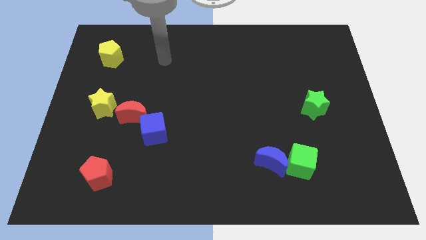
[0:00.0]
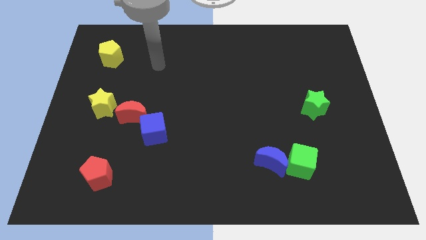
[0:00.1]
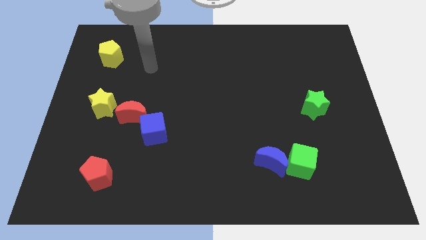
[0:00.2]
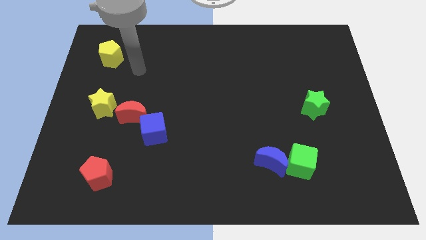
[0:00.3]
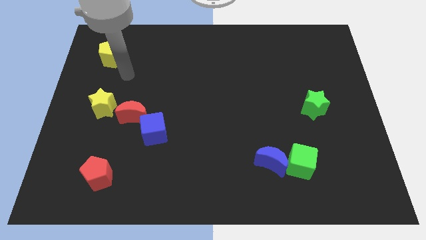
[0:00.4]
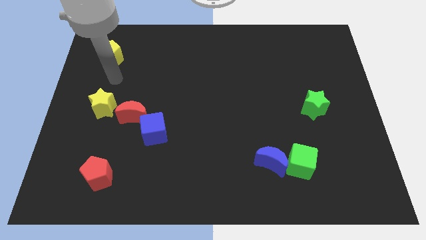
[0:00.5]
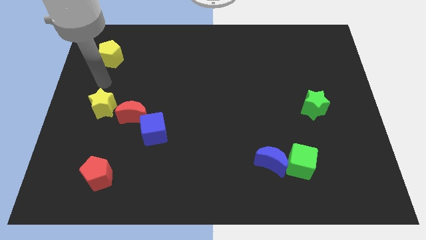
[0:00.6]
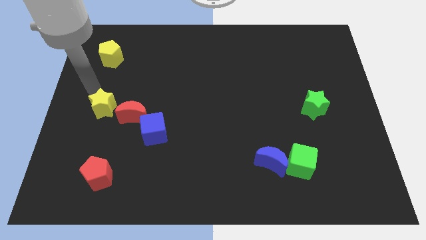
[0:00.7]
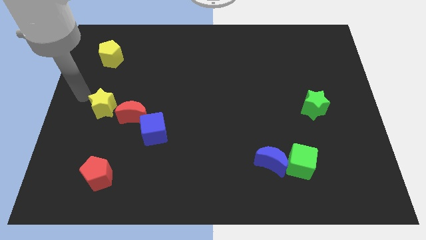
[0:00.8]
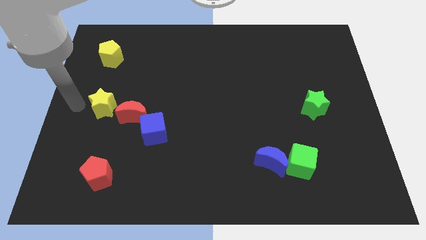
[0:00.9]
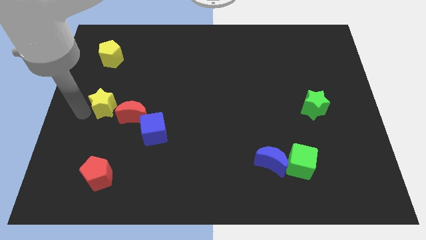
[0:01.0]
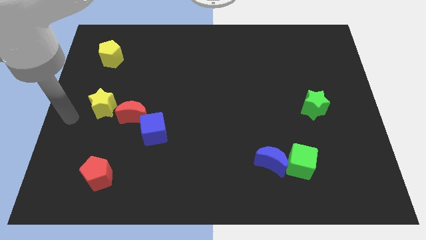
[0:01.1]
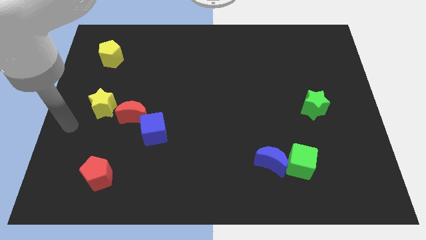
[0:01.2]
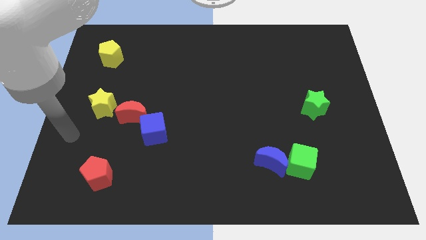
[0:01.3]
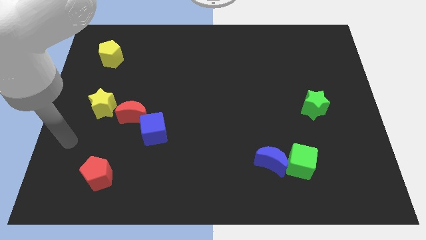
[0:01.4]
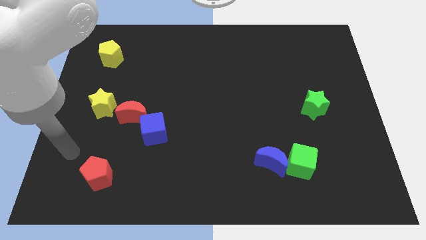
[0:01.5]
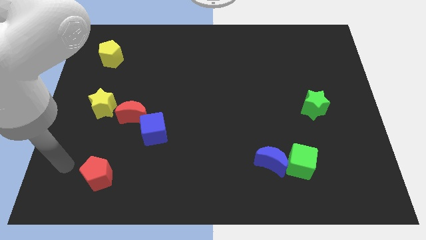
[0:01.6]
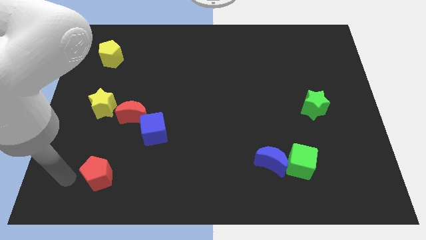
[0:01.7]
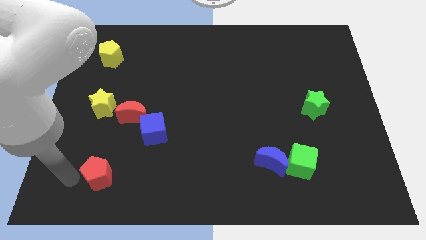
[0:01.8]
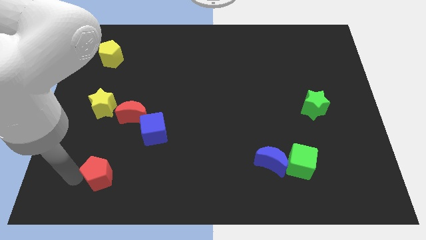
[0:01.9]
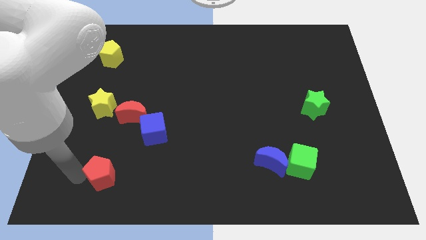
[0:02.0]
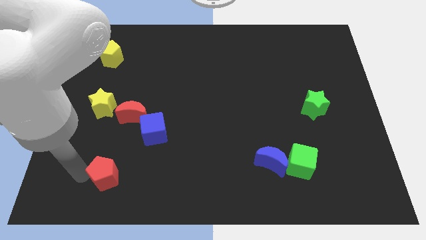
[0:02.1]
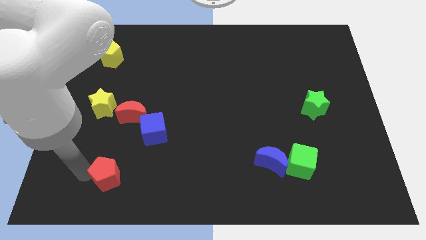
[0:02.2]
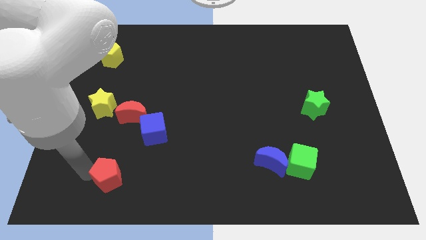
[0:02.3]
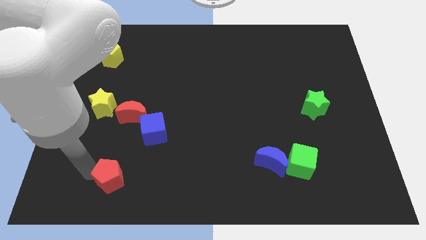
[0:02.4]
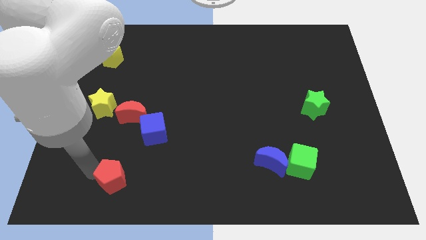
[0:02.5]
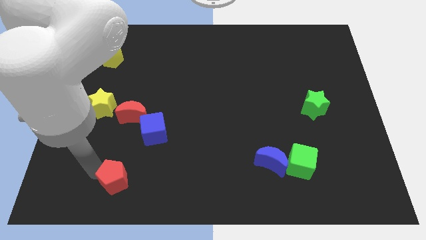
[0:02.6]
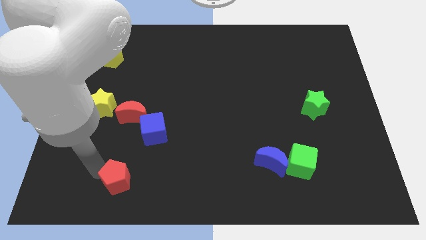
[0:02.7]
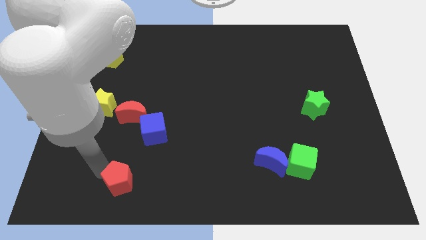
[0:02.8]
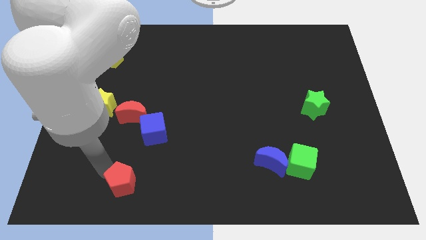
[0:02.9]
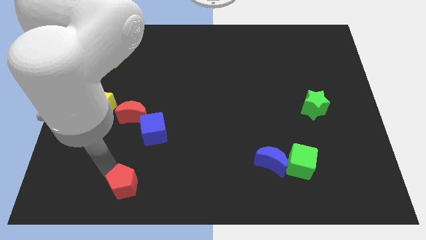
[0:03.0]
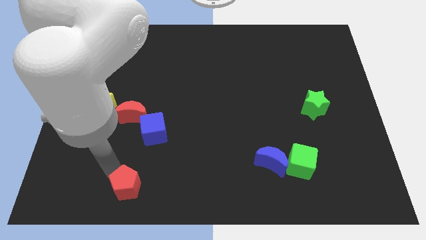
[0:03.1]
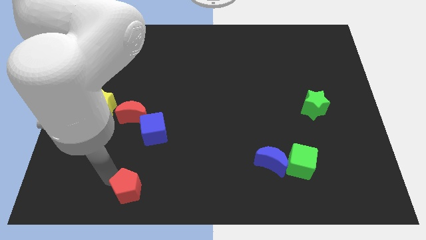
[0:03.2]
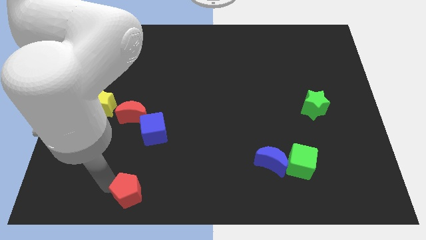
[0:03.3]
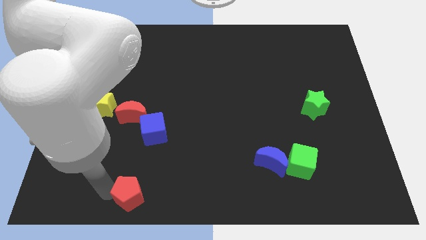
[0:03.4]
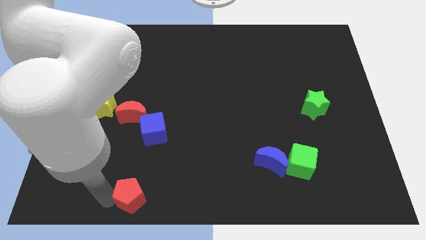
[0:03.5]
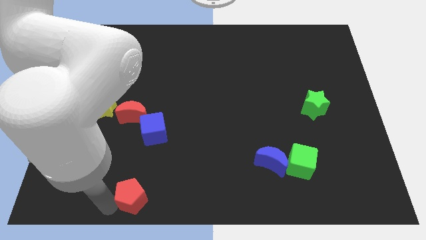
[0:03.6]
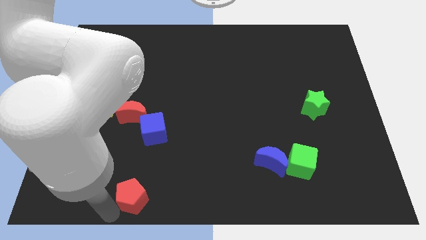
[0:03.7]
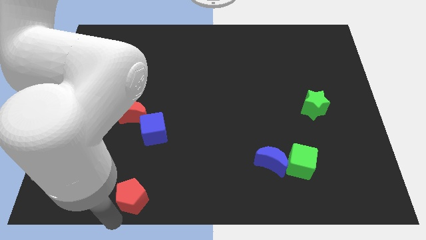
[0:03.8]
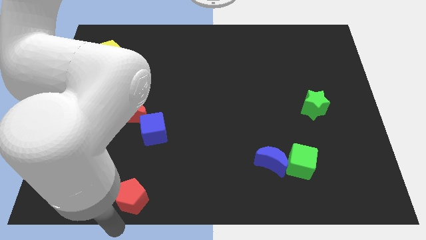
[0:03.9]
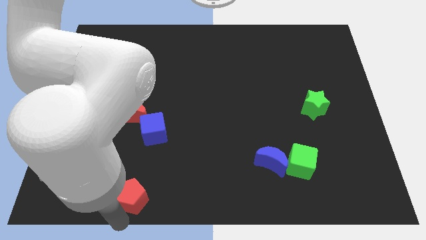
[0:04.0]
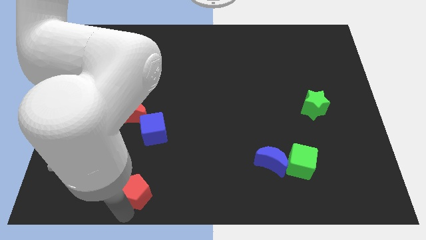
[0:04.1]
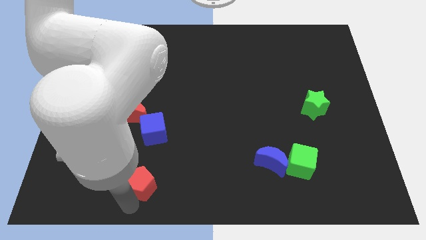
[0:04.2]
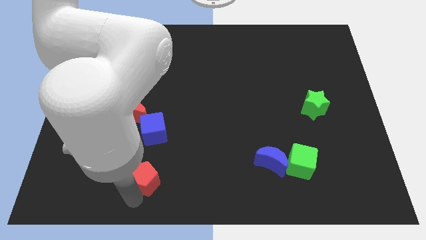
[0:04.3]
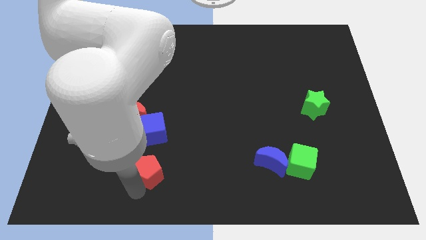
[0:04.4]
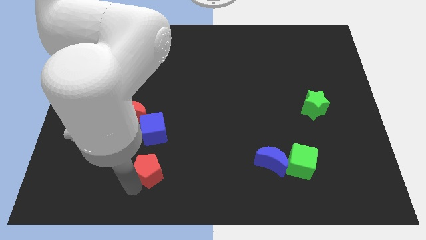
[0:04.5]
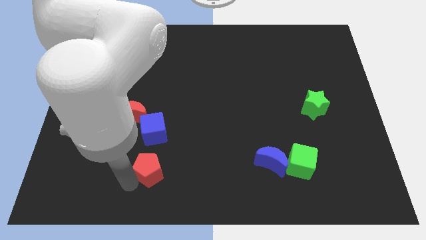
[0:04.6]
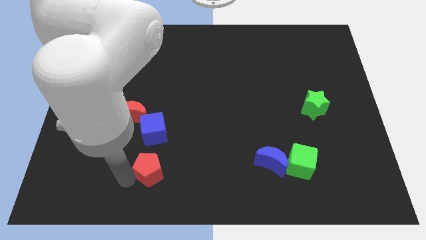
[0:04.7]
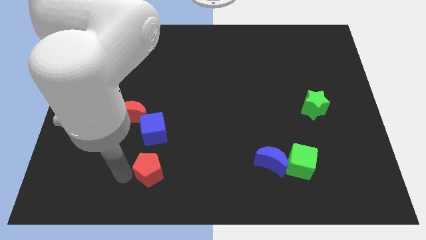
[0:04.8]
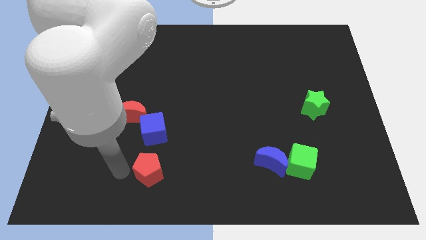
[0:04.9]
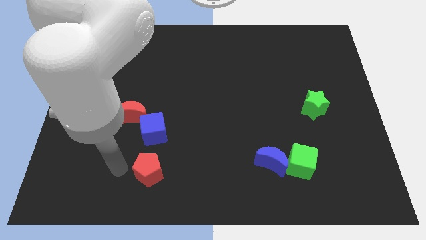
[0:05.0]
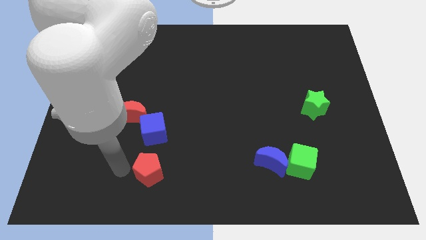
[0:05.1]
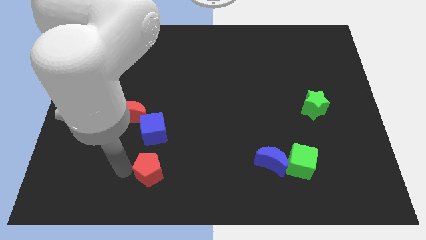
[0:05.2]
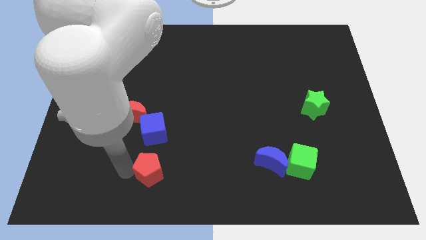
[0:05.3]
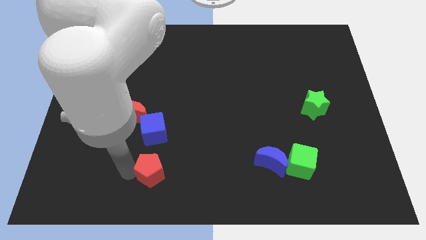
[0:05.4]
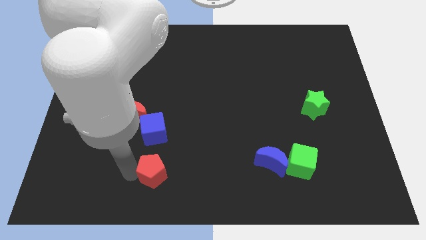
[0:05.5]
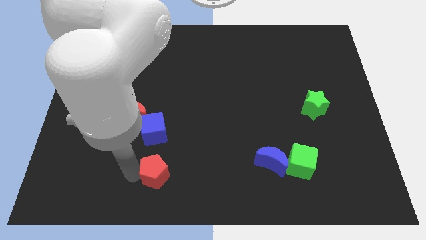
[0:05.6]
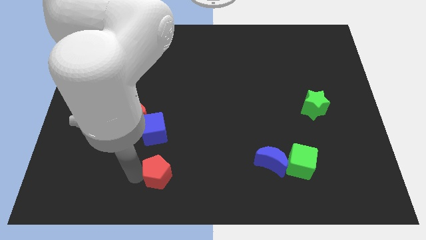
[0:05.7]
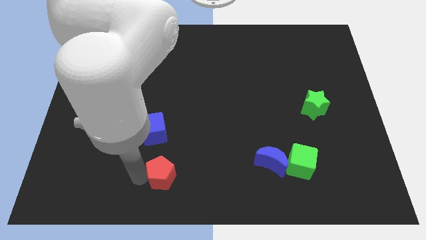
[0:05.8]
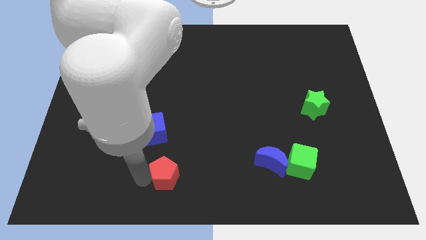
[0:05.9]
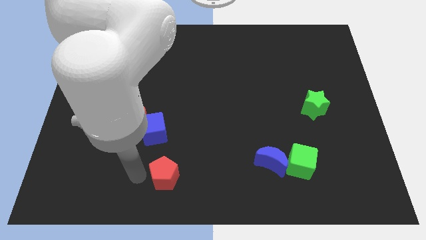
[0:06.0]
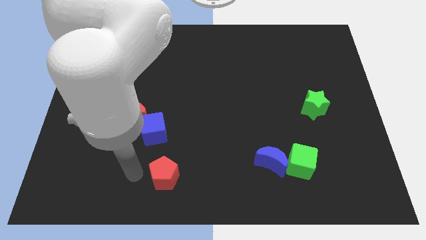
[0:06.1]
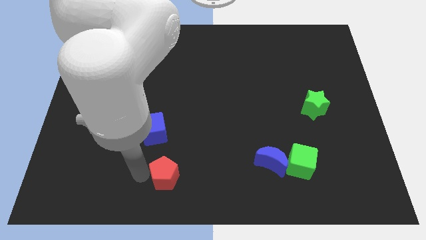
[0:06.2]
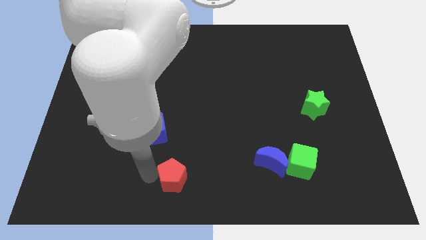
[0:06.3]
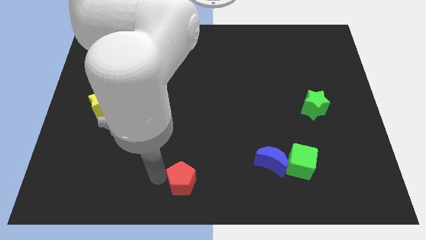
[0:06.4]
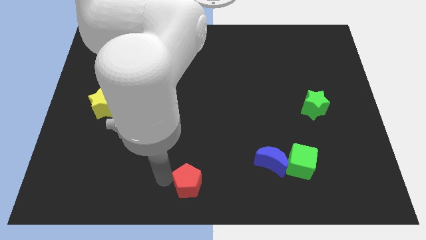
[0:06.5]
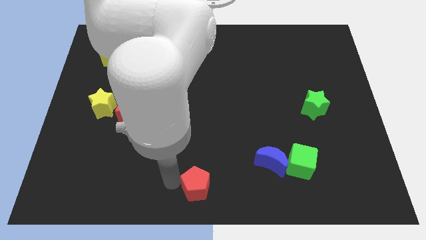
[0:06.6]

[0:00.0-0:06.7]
push the red pentagon right

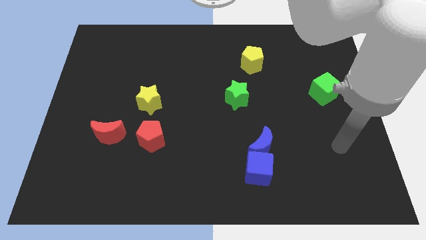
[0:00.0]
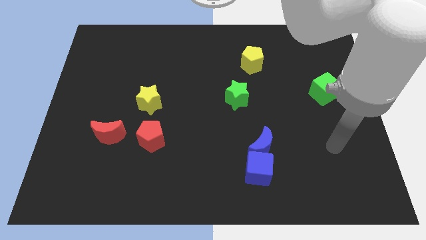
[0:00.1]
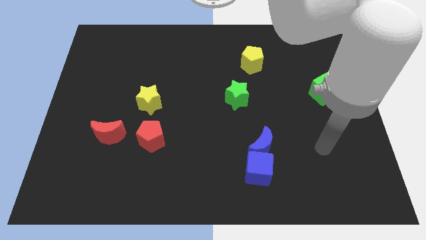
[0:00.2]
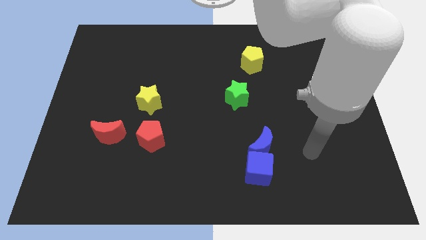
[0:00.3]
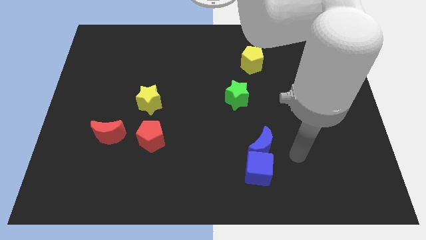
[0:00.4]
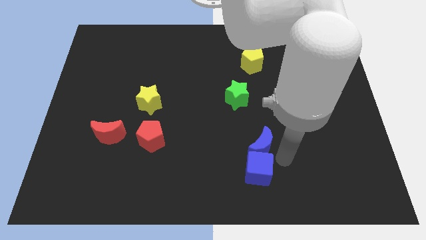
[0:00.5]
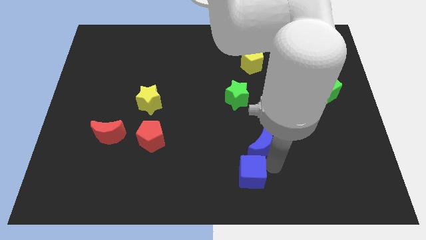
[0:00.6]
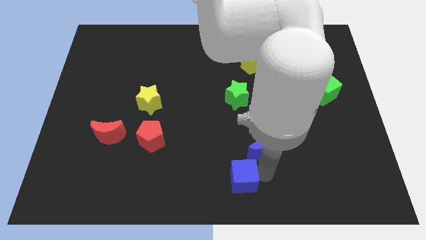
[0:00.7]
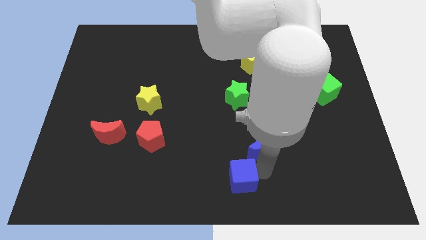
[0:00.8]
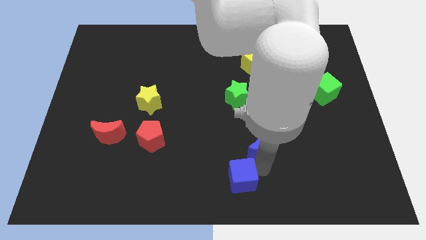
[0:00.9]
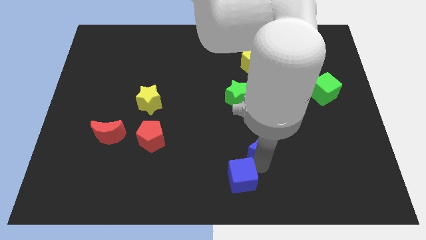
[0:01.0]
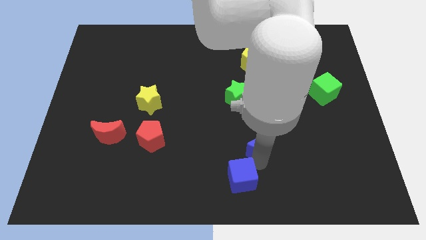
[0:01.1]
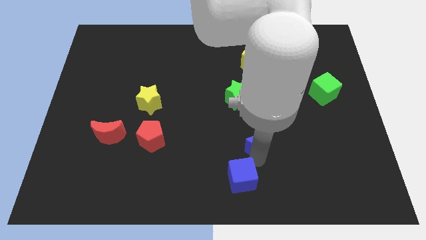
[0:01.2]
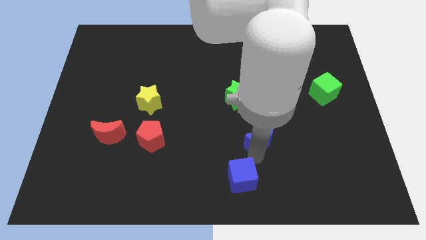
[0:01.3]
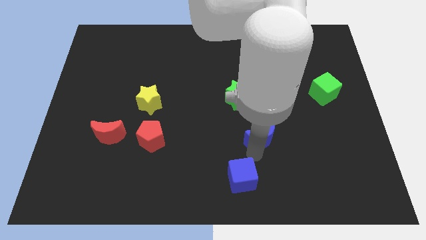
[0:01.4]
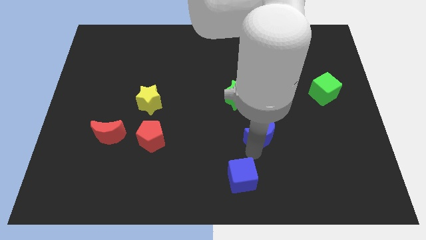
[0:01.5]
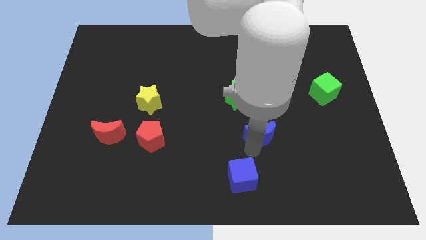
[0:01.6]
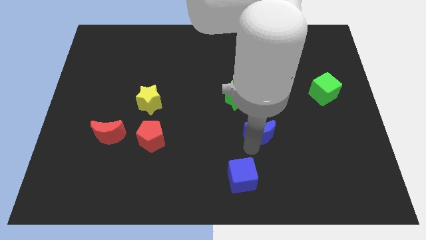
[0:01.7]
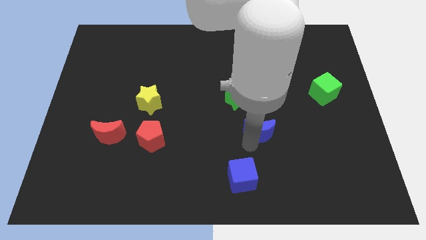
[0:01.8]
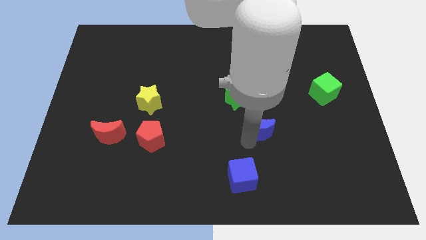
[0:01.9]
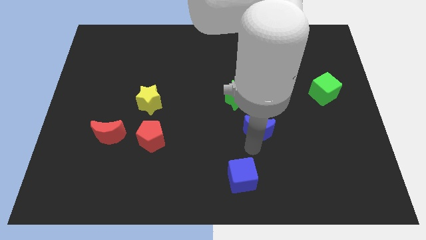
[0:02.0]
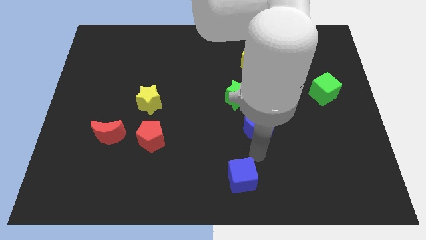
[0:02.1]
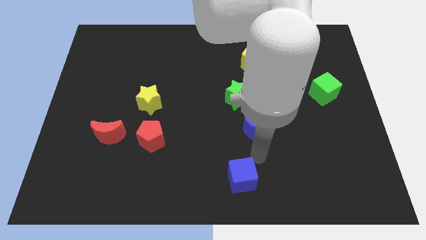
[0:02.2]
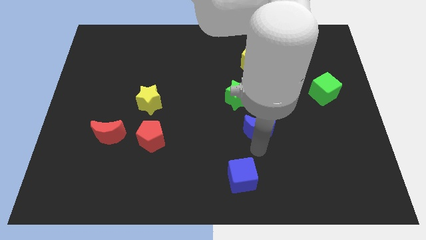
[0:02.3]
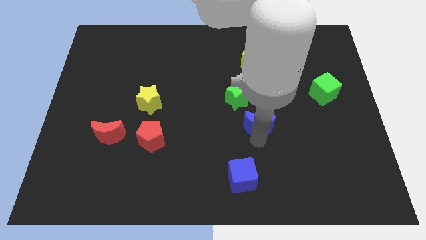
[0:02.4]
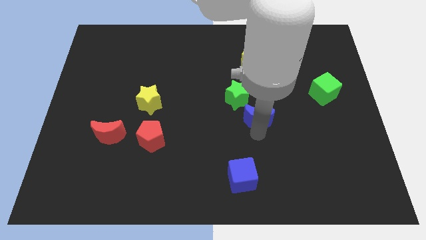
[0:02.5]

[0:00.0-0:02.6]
push the blue moon somewhat upwards
